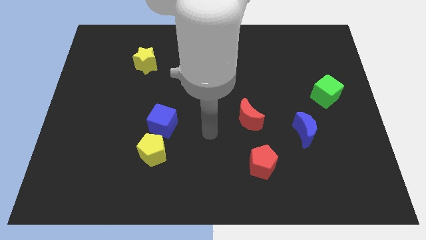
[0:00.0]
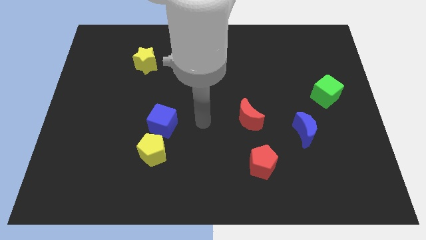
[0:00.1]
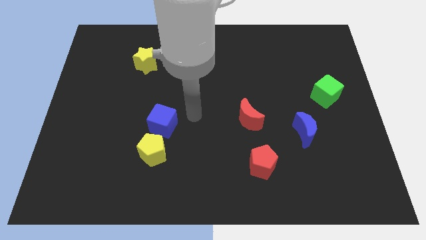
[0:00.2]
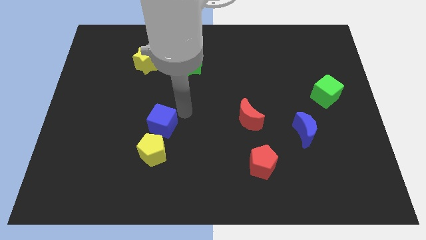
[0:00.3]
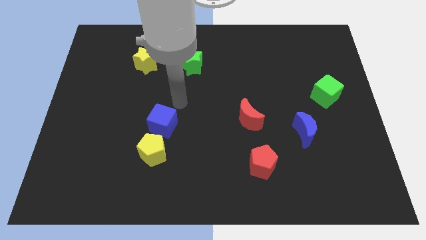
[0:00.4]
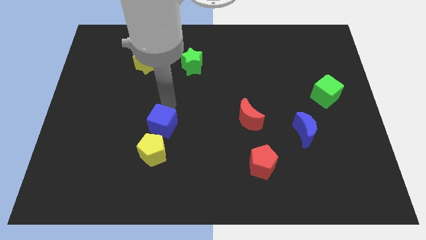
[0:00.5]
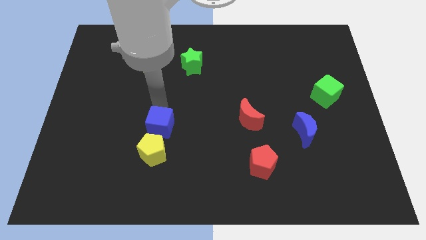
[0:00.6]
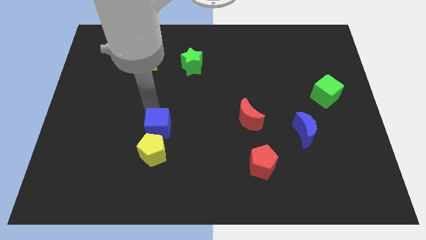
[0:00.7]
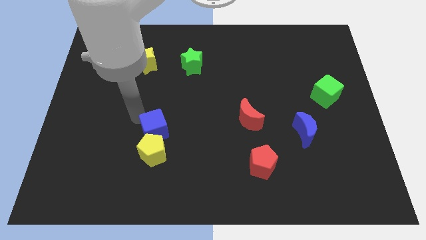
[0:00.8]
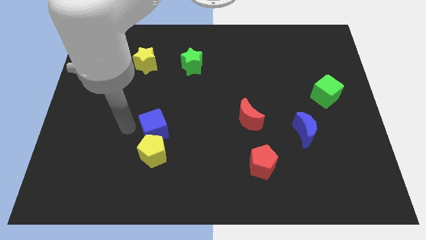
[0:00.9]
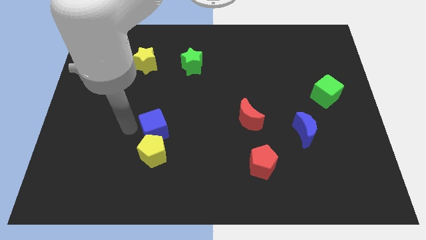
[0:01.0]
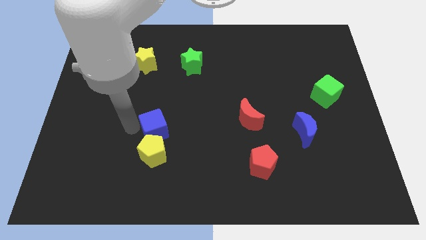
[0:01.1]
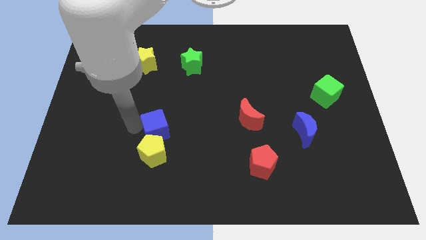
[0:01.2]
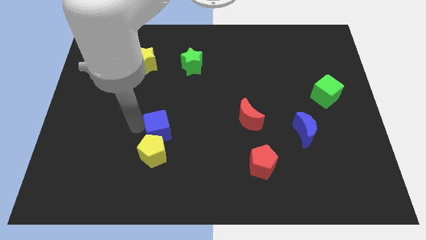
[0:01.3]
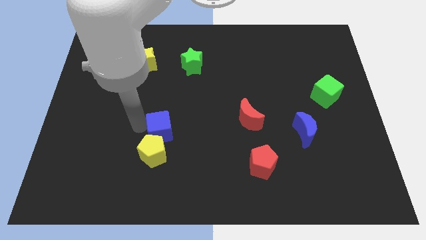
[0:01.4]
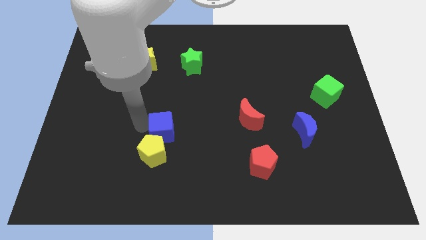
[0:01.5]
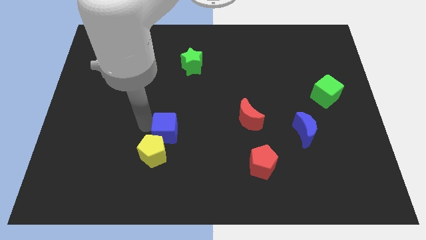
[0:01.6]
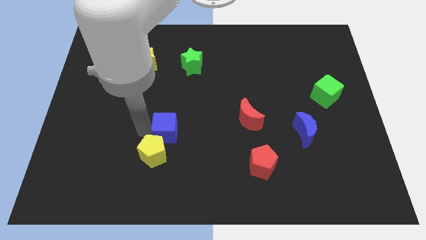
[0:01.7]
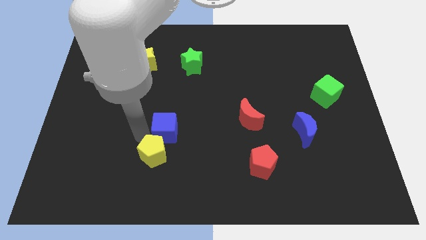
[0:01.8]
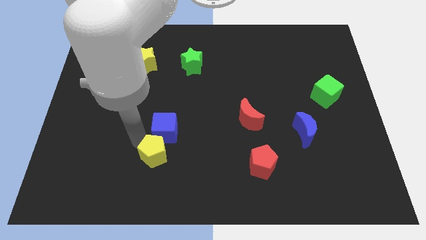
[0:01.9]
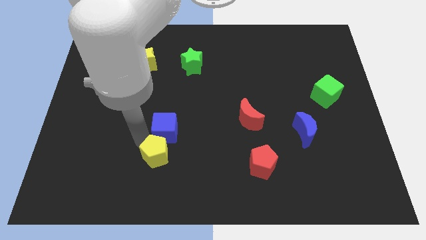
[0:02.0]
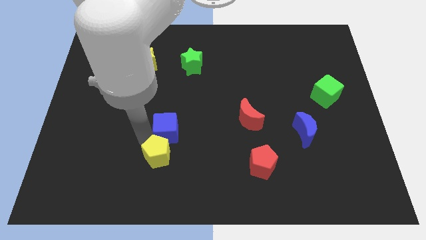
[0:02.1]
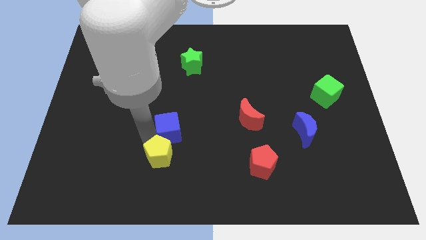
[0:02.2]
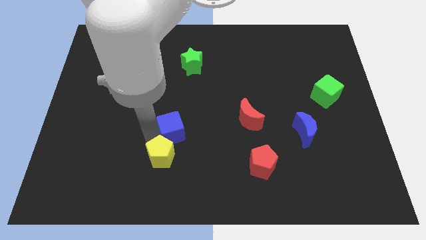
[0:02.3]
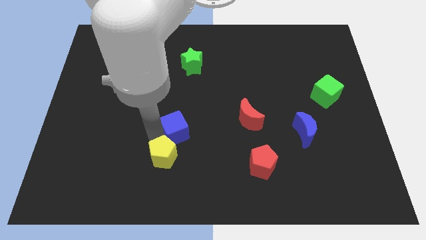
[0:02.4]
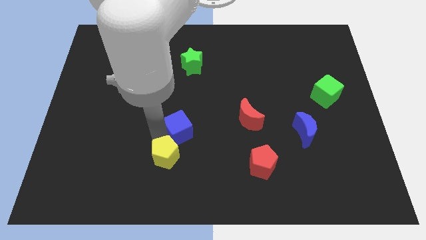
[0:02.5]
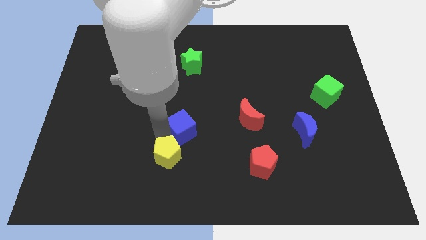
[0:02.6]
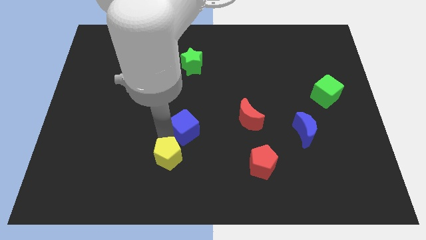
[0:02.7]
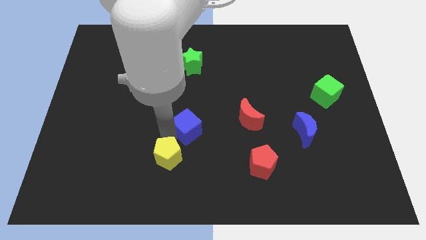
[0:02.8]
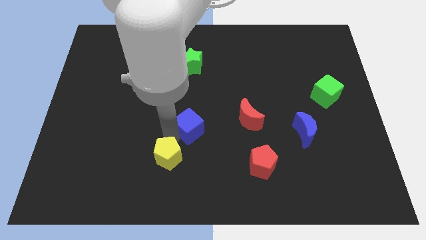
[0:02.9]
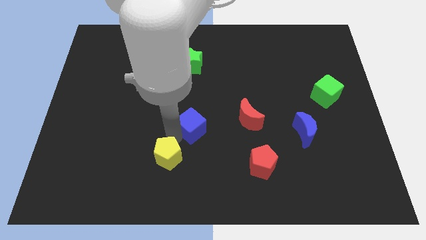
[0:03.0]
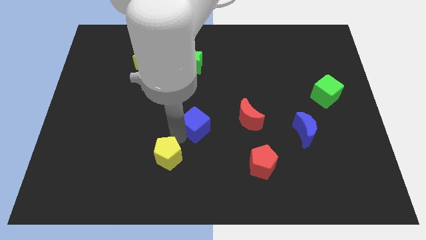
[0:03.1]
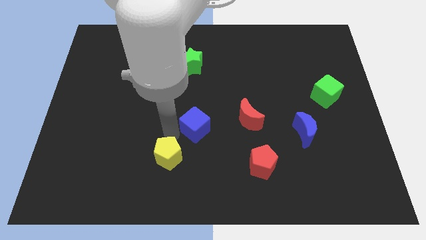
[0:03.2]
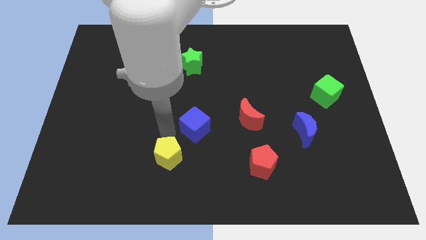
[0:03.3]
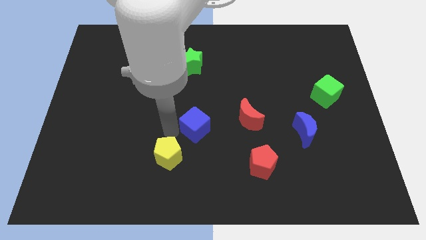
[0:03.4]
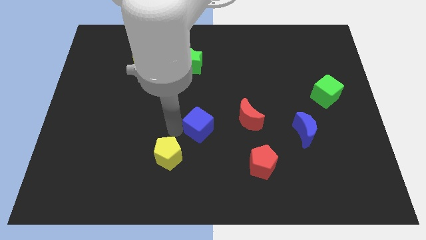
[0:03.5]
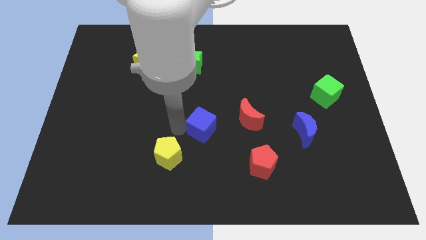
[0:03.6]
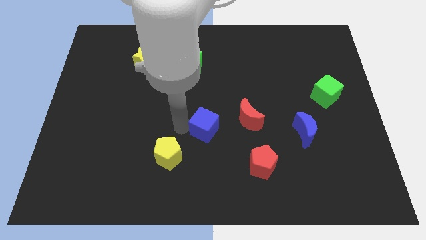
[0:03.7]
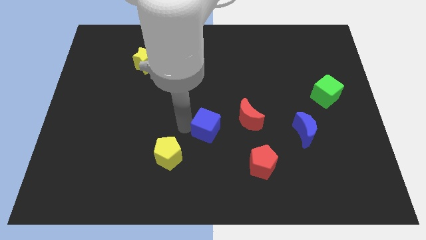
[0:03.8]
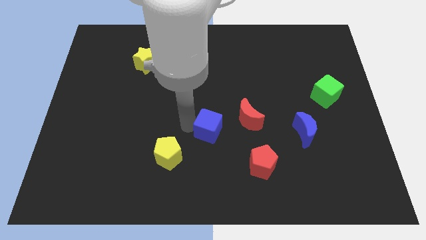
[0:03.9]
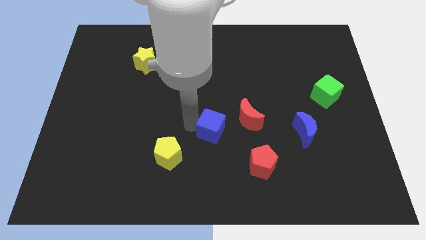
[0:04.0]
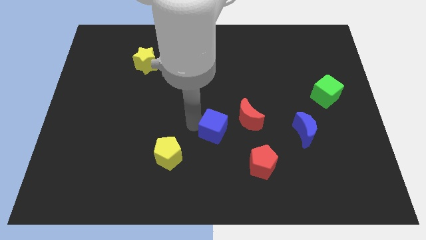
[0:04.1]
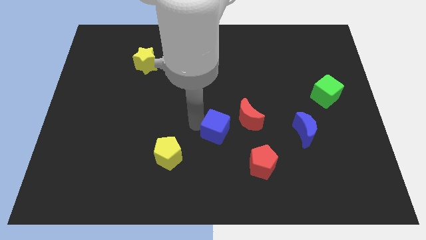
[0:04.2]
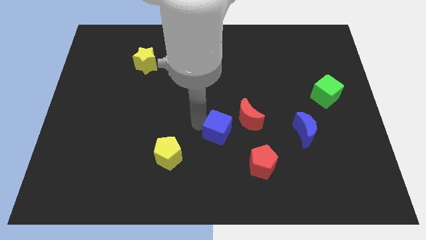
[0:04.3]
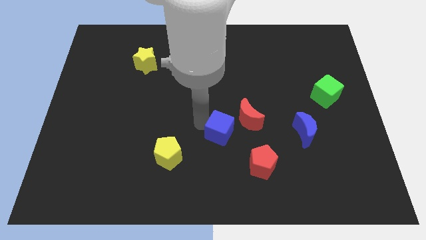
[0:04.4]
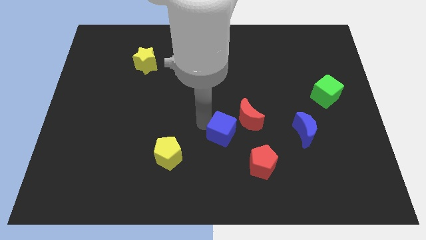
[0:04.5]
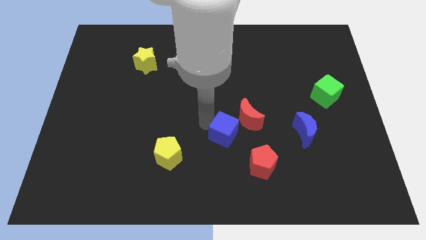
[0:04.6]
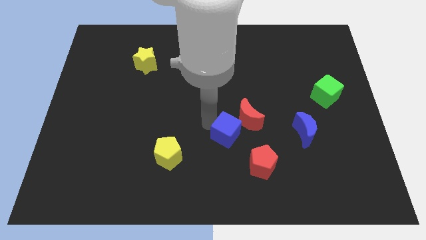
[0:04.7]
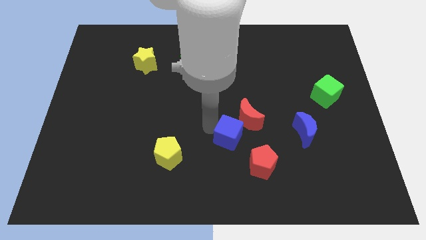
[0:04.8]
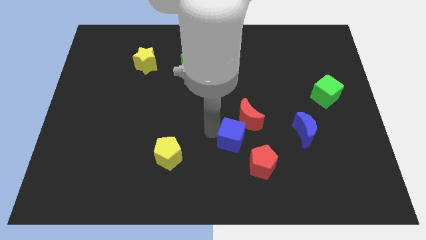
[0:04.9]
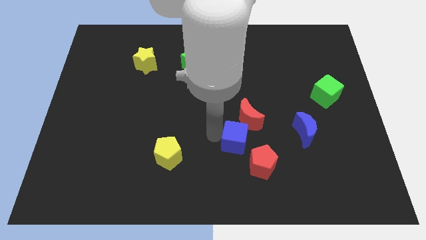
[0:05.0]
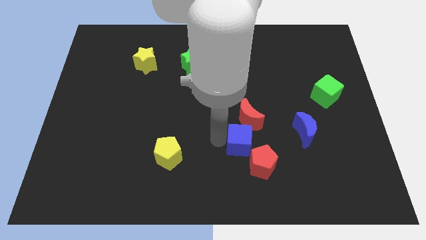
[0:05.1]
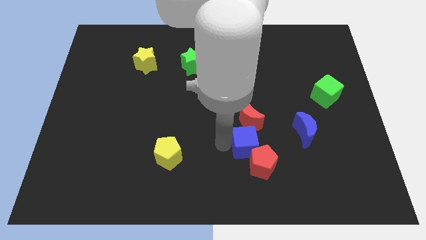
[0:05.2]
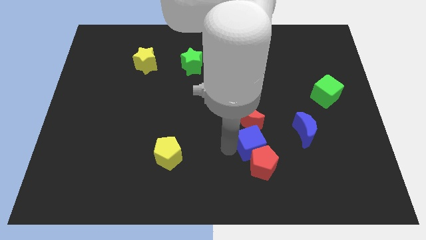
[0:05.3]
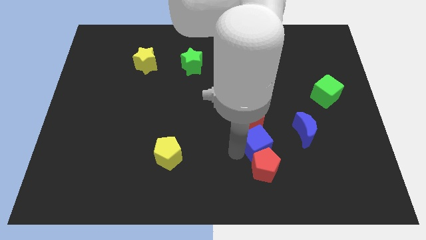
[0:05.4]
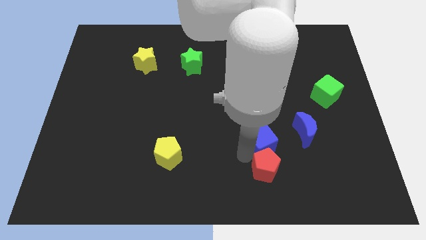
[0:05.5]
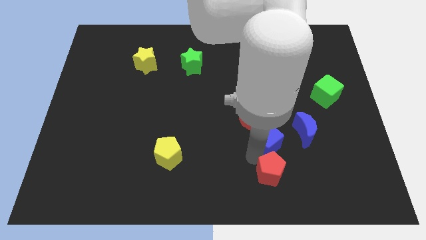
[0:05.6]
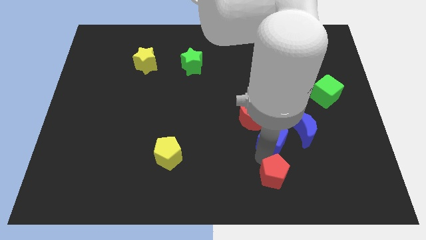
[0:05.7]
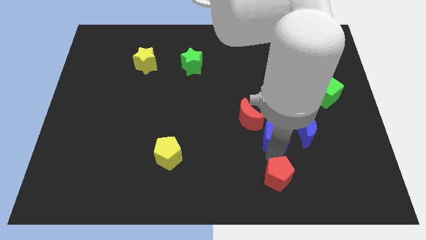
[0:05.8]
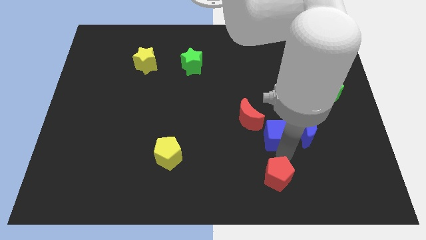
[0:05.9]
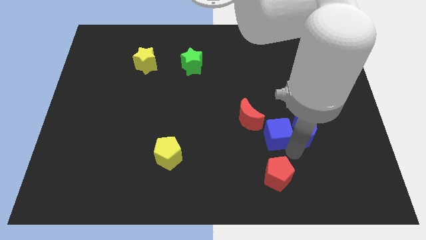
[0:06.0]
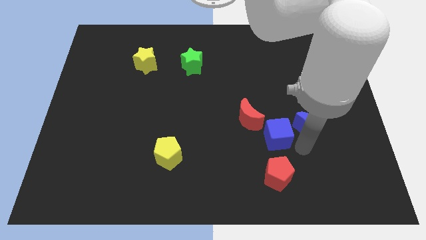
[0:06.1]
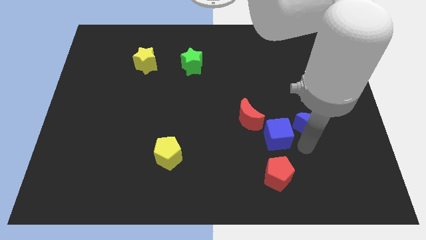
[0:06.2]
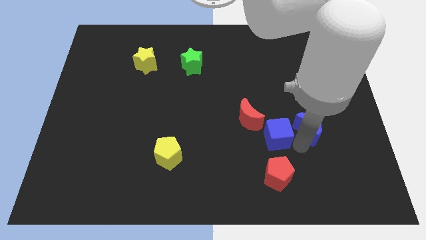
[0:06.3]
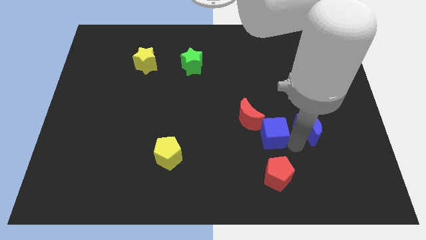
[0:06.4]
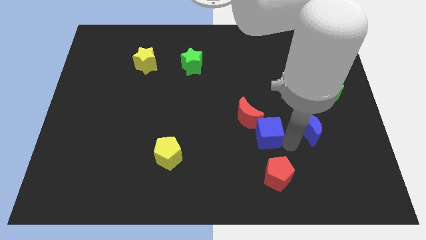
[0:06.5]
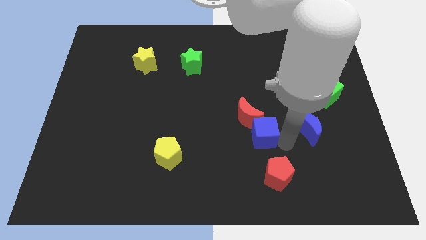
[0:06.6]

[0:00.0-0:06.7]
move the blue cube next to the red moon

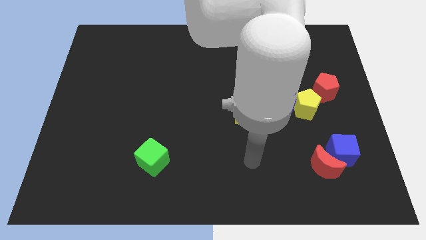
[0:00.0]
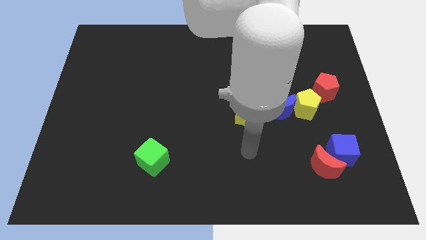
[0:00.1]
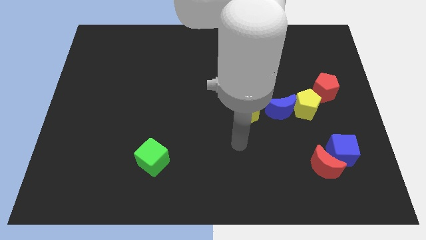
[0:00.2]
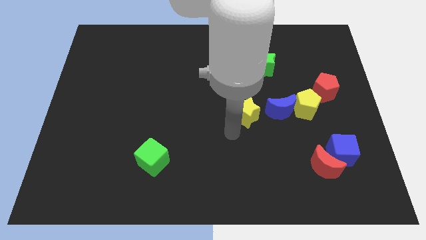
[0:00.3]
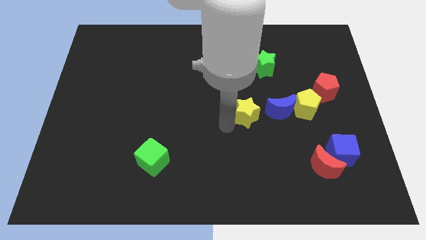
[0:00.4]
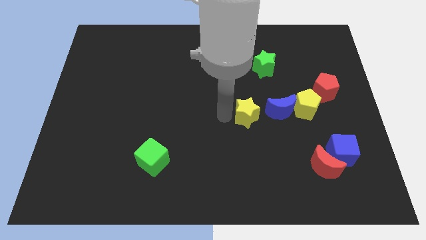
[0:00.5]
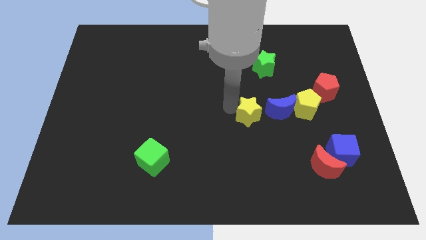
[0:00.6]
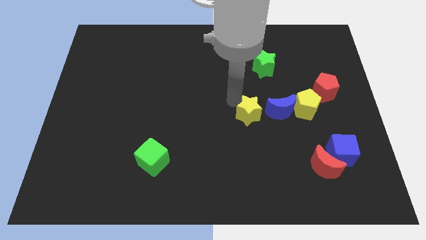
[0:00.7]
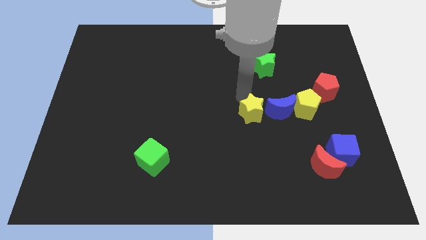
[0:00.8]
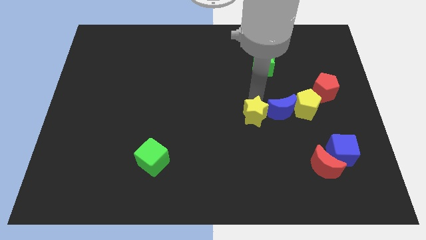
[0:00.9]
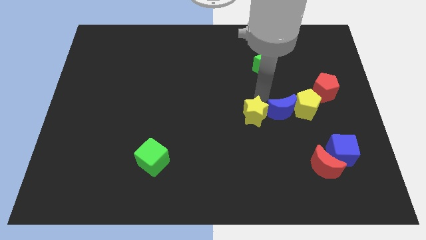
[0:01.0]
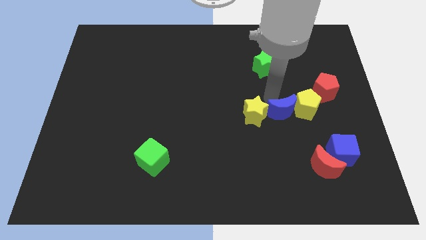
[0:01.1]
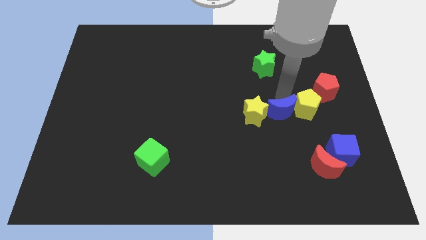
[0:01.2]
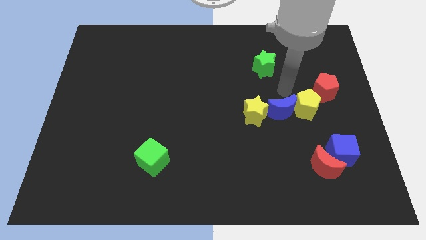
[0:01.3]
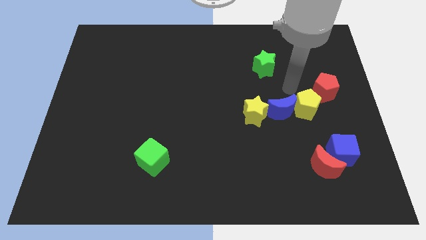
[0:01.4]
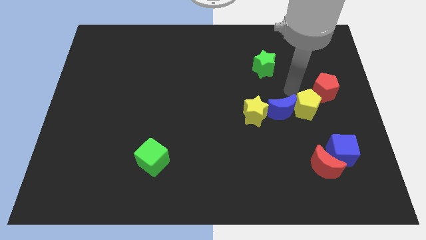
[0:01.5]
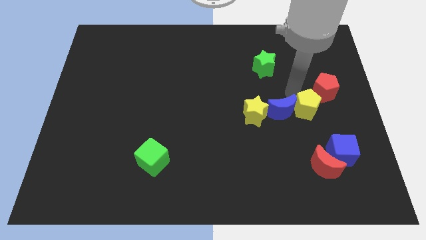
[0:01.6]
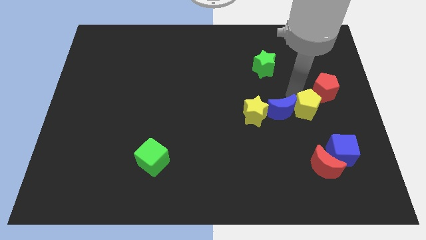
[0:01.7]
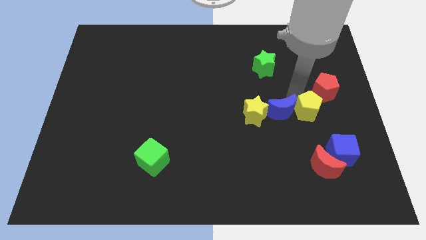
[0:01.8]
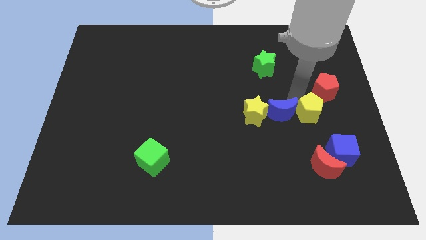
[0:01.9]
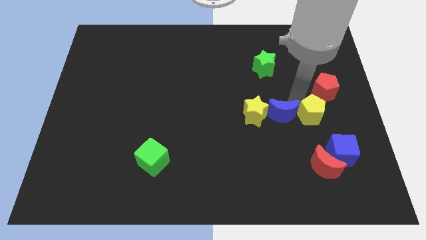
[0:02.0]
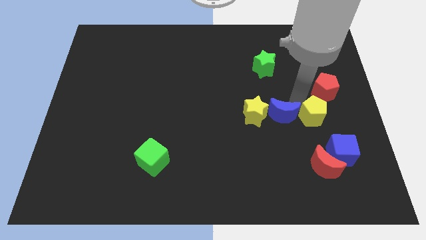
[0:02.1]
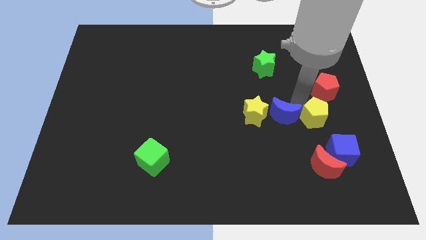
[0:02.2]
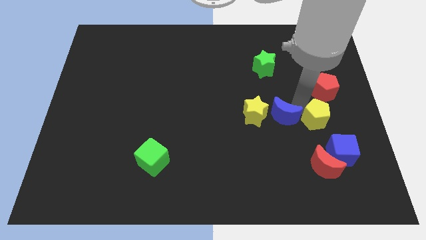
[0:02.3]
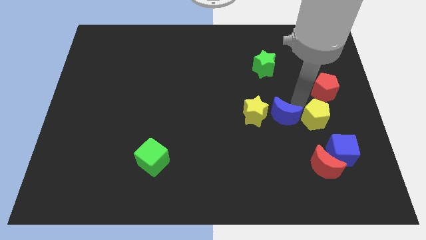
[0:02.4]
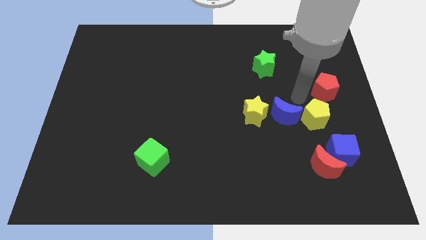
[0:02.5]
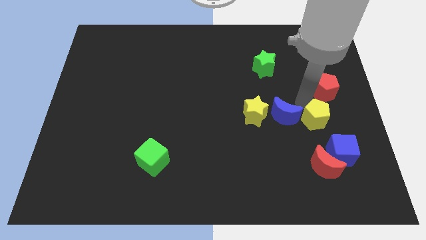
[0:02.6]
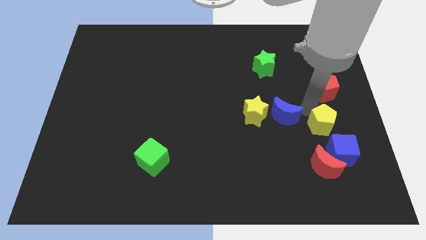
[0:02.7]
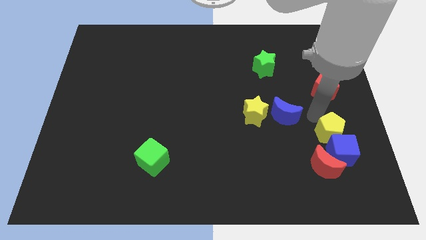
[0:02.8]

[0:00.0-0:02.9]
put the yellow pentagon next to the blue cube
